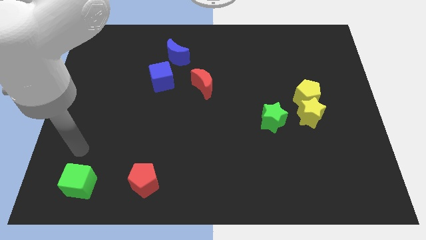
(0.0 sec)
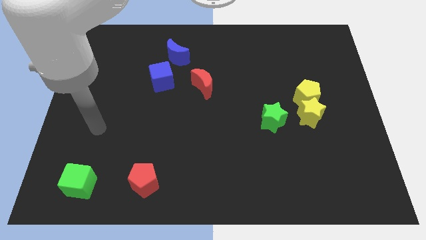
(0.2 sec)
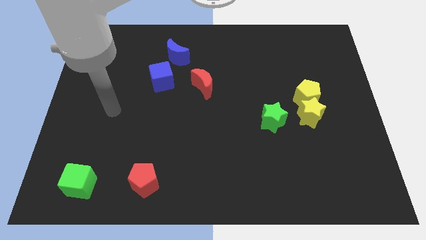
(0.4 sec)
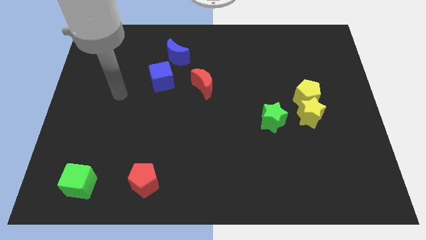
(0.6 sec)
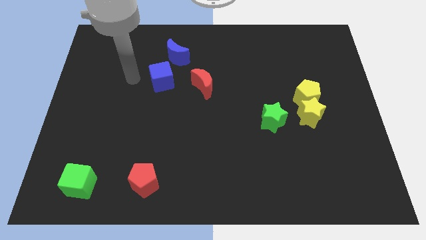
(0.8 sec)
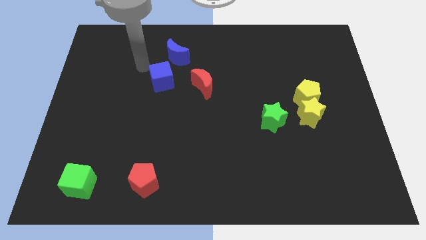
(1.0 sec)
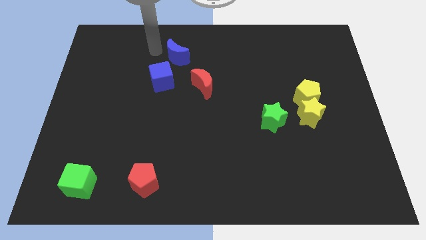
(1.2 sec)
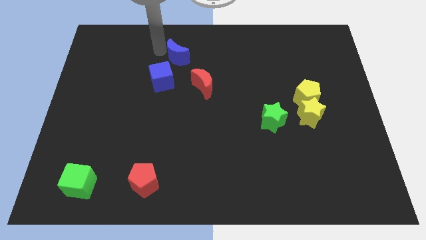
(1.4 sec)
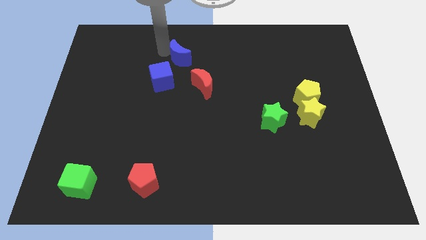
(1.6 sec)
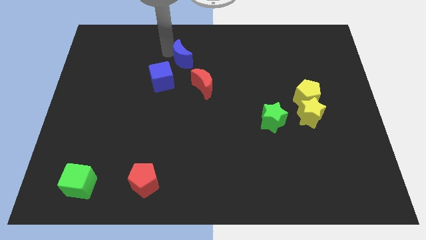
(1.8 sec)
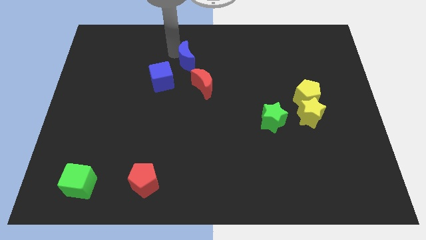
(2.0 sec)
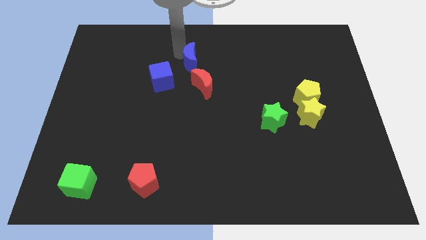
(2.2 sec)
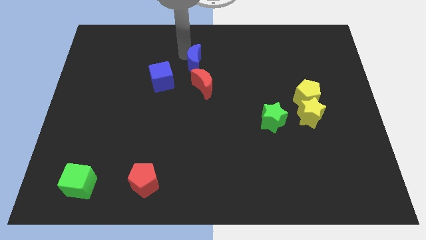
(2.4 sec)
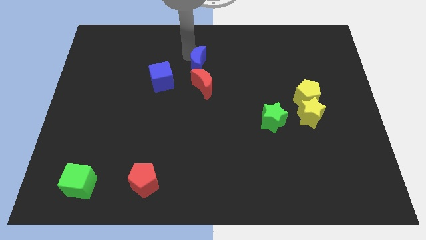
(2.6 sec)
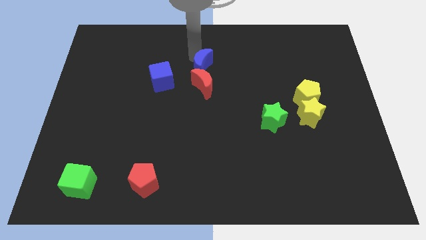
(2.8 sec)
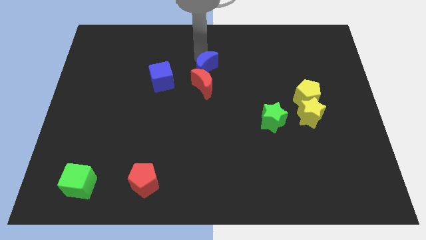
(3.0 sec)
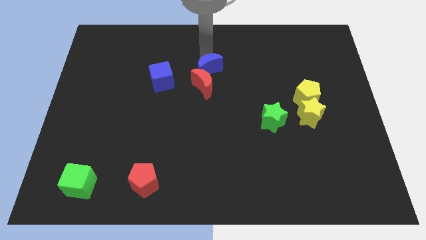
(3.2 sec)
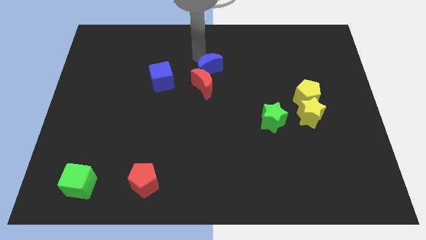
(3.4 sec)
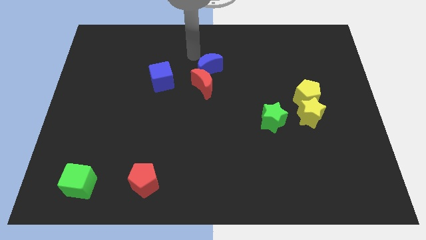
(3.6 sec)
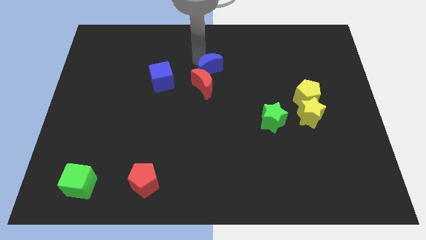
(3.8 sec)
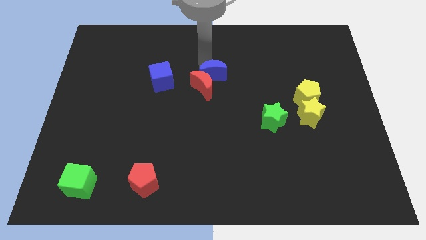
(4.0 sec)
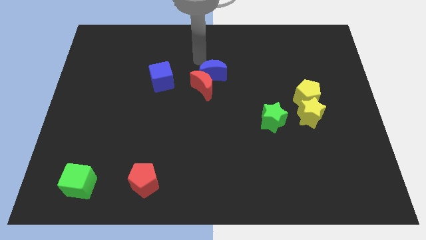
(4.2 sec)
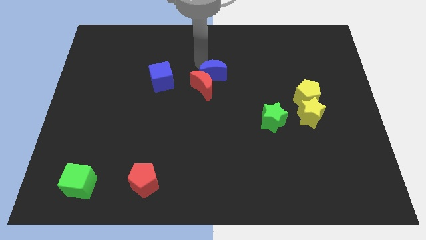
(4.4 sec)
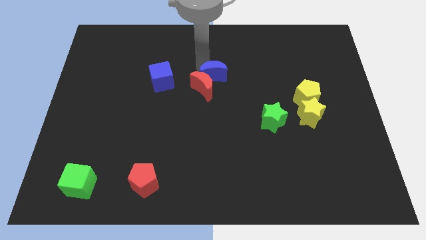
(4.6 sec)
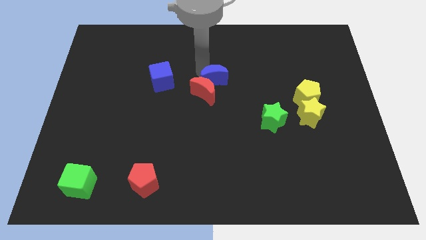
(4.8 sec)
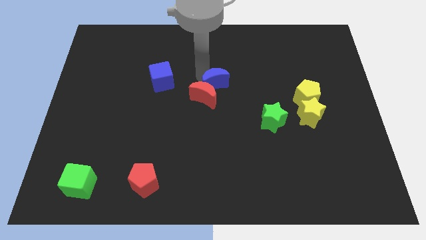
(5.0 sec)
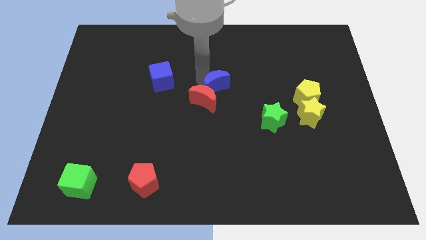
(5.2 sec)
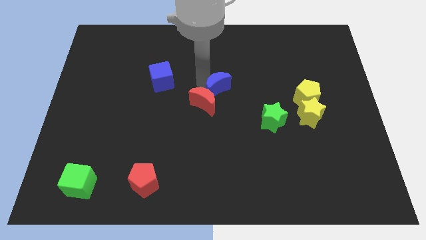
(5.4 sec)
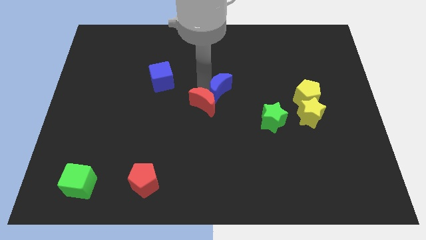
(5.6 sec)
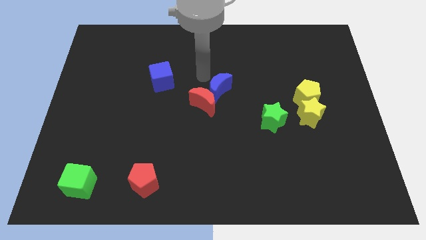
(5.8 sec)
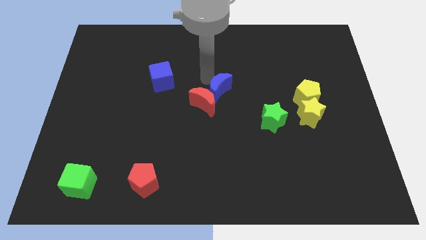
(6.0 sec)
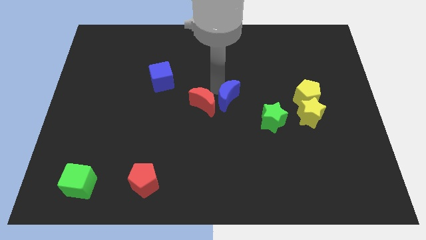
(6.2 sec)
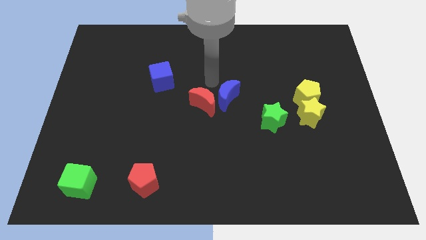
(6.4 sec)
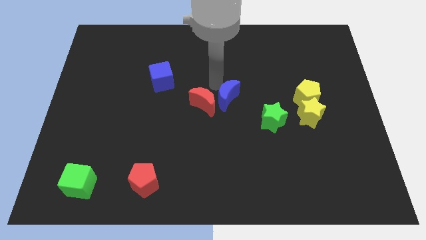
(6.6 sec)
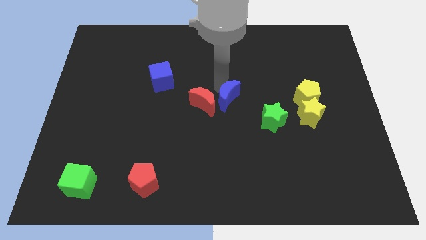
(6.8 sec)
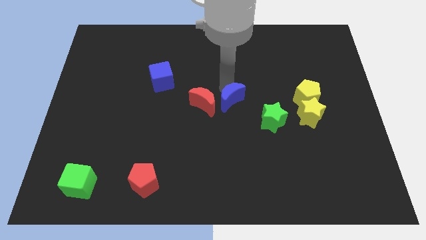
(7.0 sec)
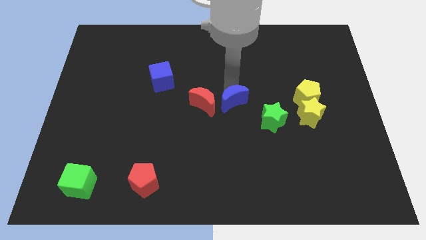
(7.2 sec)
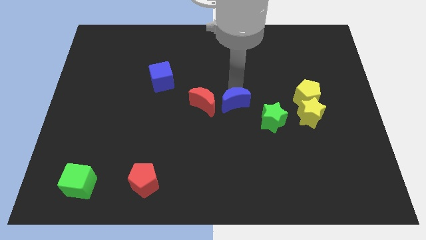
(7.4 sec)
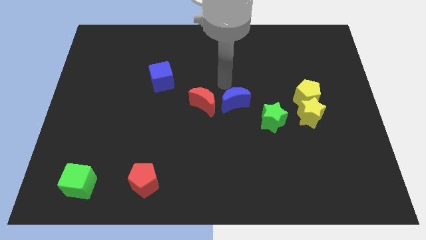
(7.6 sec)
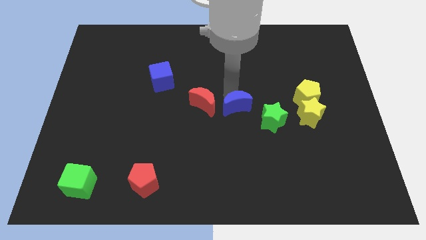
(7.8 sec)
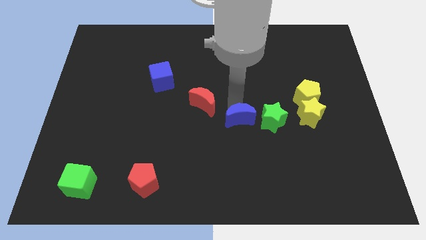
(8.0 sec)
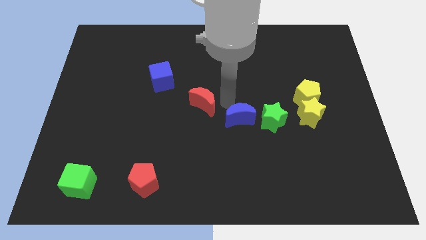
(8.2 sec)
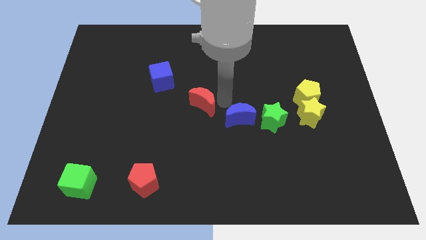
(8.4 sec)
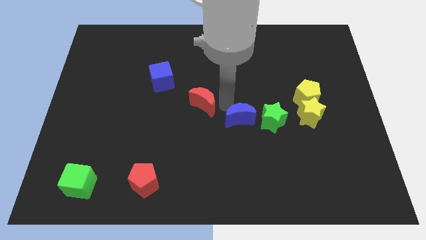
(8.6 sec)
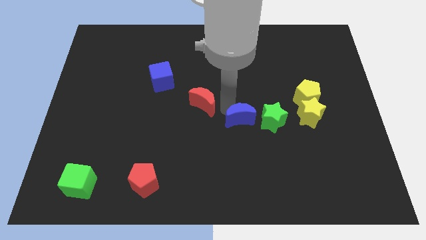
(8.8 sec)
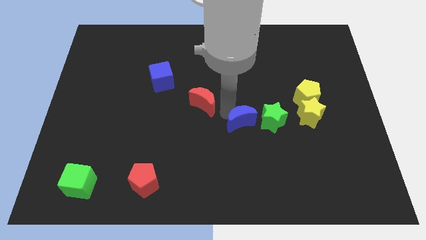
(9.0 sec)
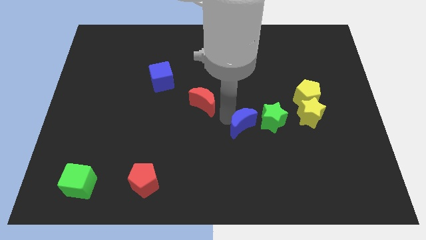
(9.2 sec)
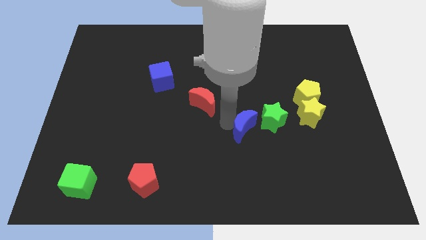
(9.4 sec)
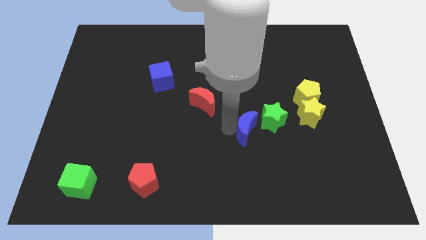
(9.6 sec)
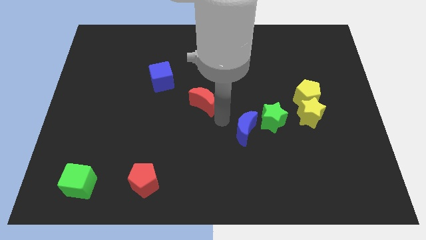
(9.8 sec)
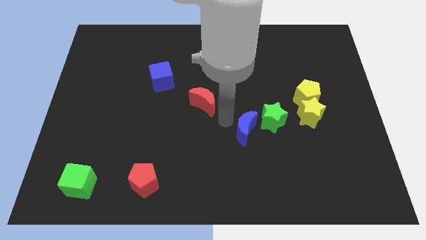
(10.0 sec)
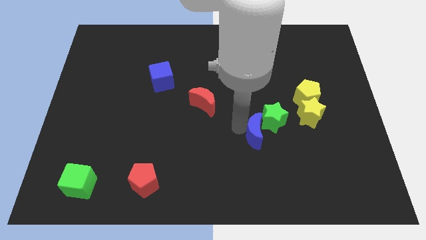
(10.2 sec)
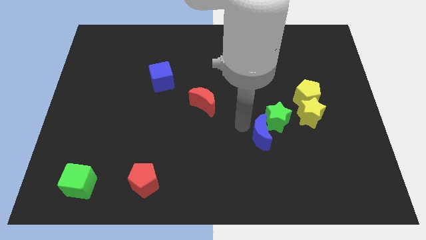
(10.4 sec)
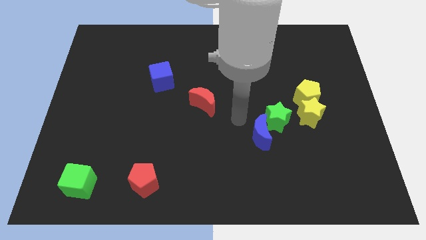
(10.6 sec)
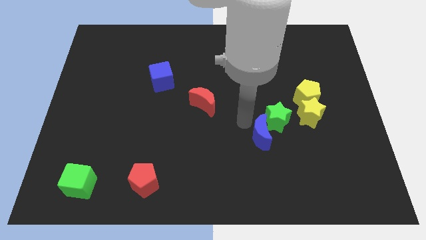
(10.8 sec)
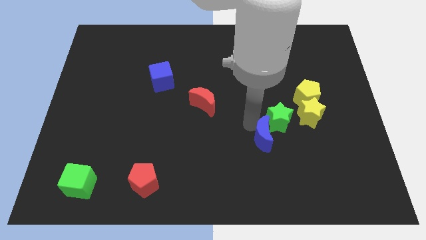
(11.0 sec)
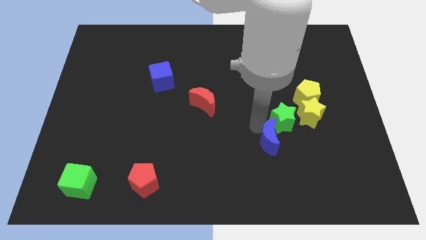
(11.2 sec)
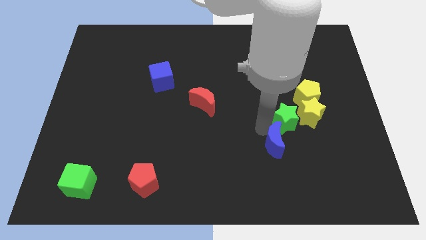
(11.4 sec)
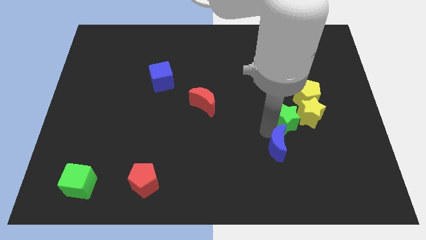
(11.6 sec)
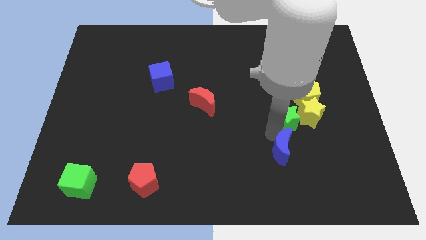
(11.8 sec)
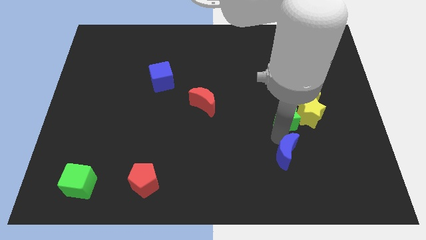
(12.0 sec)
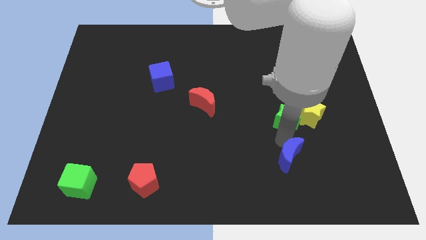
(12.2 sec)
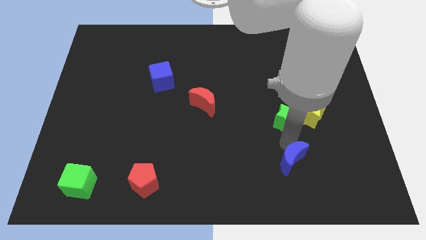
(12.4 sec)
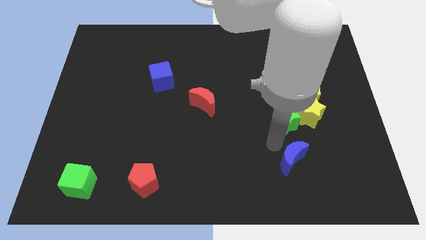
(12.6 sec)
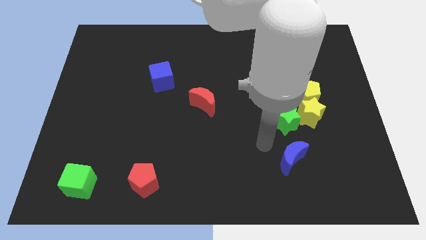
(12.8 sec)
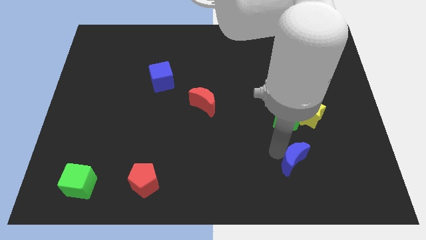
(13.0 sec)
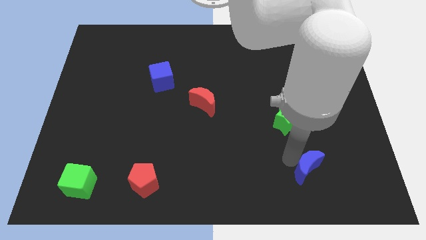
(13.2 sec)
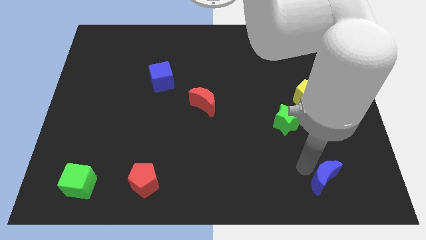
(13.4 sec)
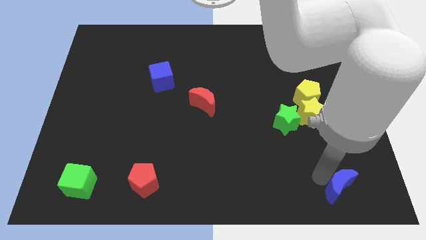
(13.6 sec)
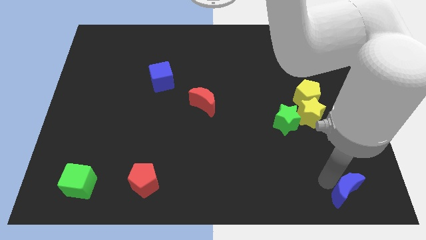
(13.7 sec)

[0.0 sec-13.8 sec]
move the blue moon to the bottom right of the board
